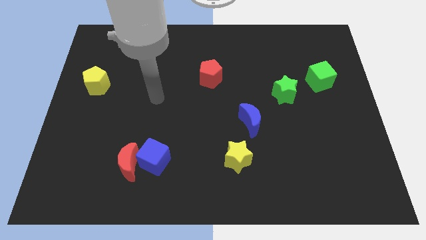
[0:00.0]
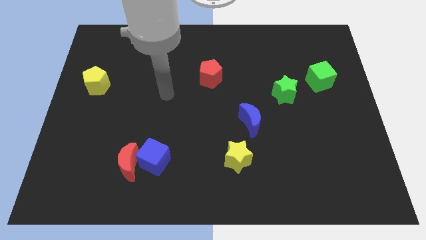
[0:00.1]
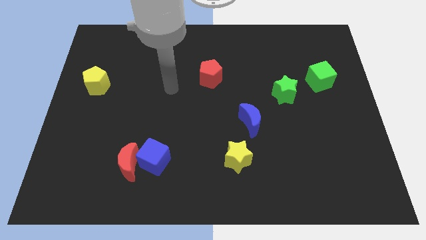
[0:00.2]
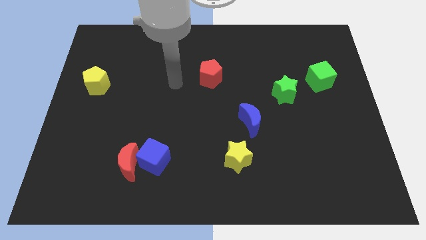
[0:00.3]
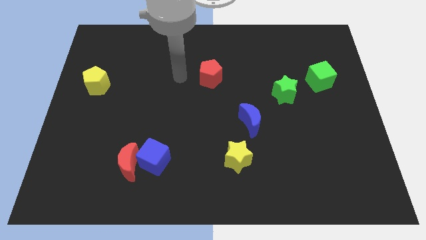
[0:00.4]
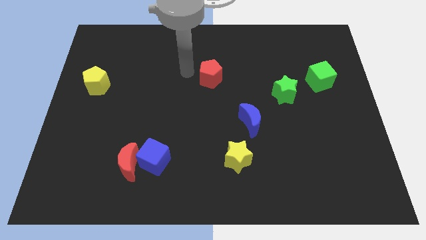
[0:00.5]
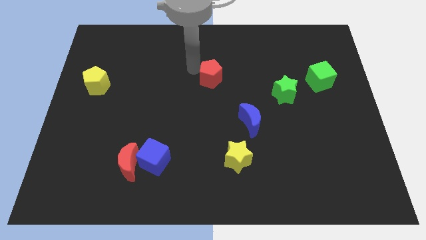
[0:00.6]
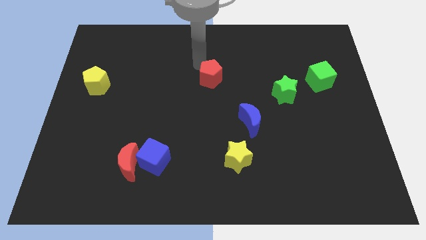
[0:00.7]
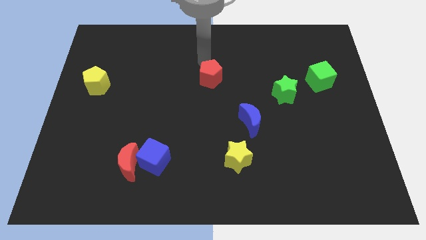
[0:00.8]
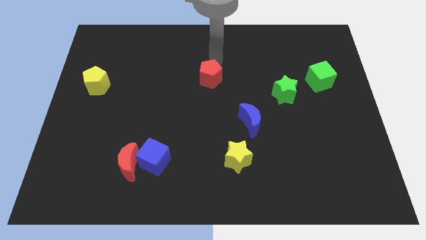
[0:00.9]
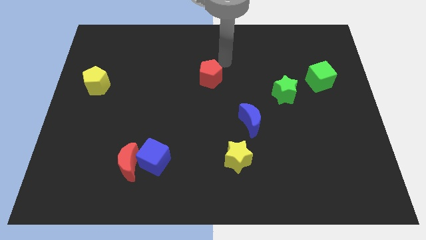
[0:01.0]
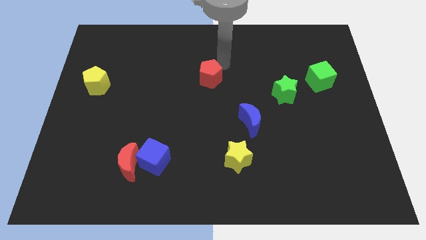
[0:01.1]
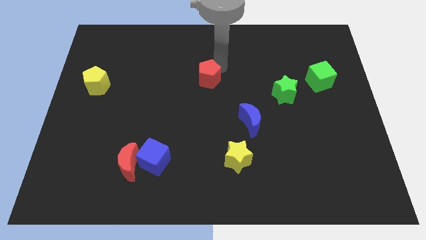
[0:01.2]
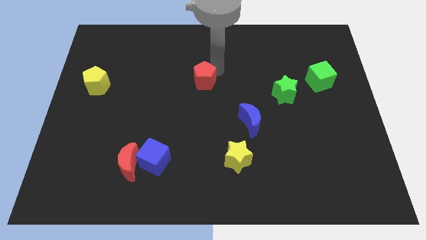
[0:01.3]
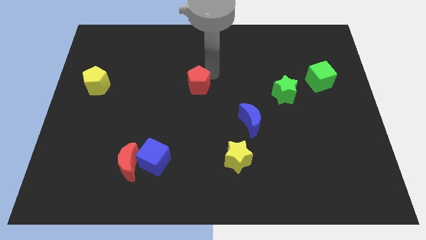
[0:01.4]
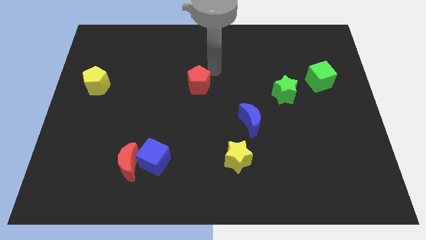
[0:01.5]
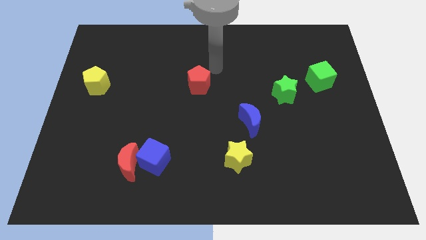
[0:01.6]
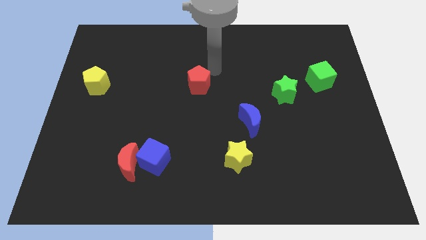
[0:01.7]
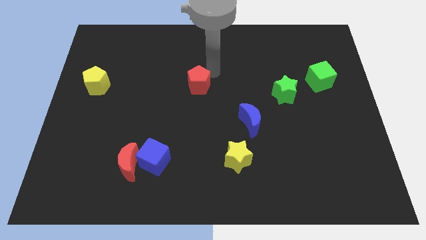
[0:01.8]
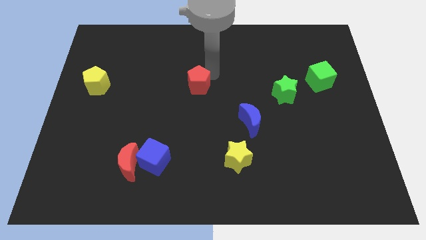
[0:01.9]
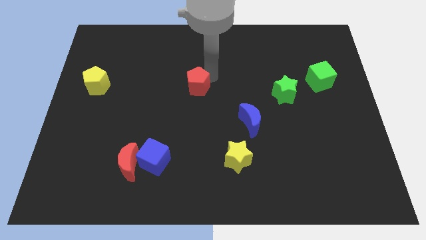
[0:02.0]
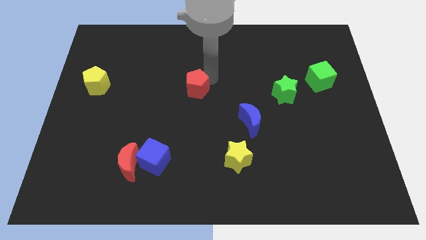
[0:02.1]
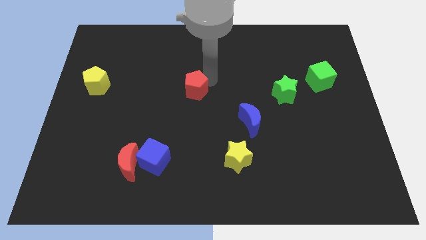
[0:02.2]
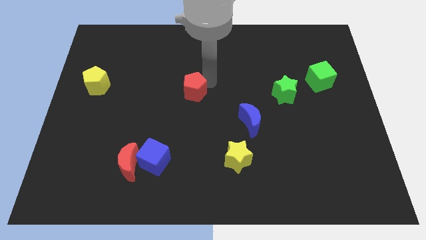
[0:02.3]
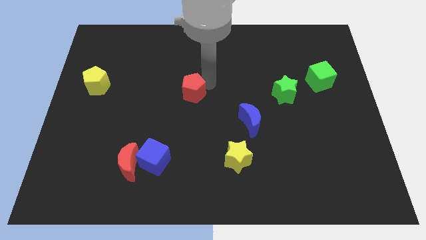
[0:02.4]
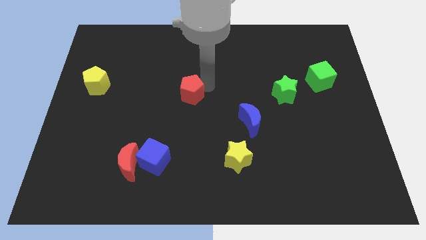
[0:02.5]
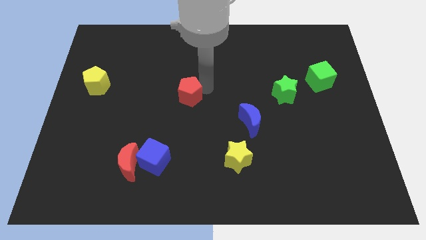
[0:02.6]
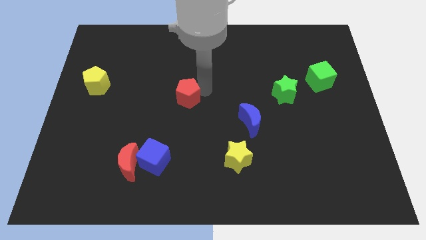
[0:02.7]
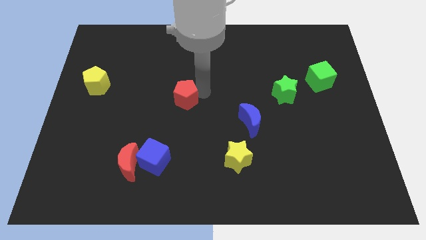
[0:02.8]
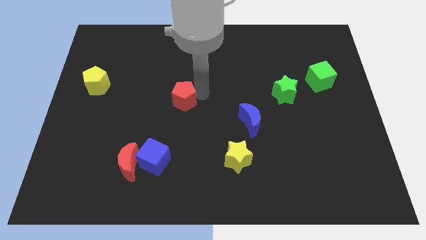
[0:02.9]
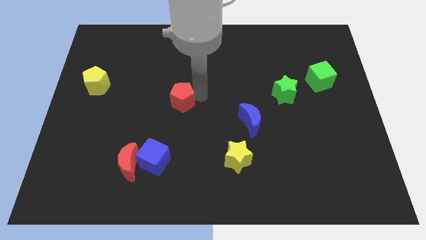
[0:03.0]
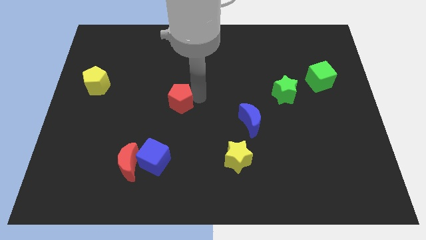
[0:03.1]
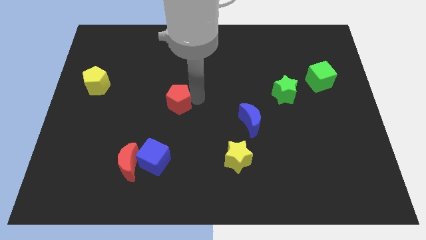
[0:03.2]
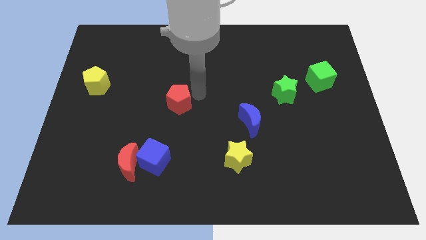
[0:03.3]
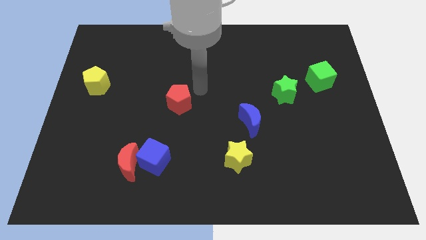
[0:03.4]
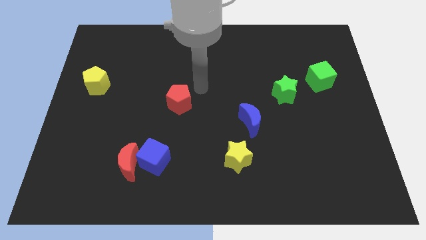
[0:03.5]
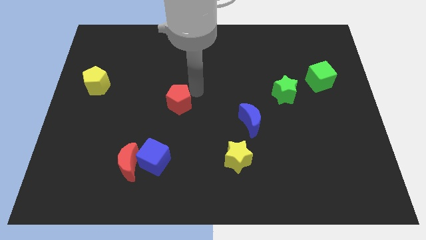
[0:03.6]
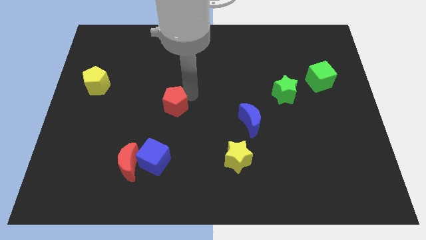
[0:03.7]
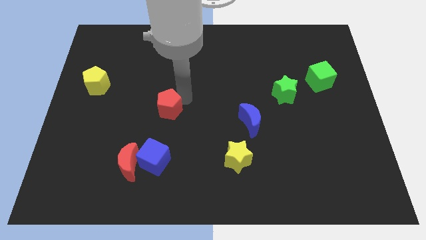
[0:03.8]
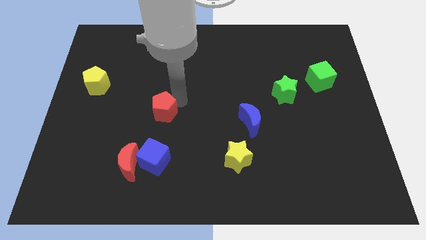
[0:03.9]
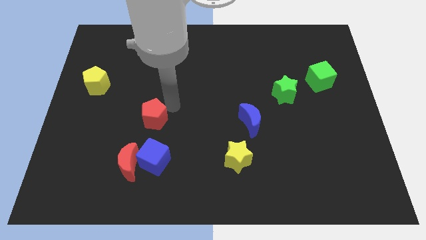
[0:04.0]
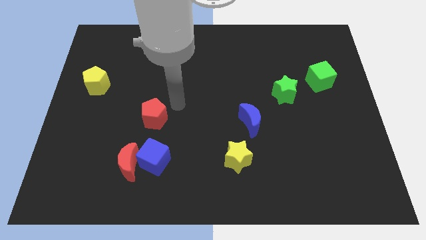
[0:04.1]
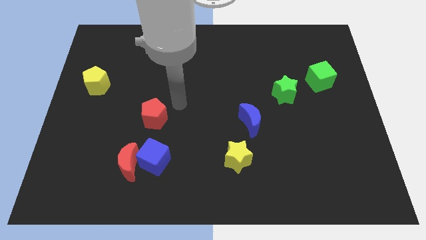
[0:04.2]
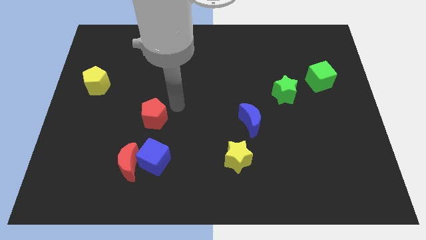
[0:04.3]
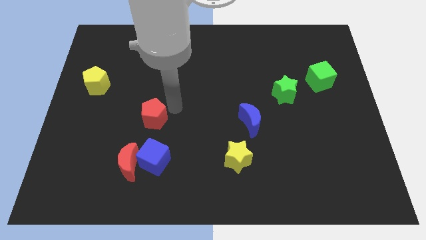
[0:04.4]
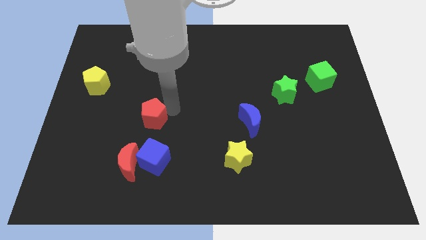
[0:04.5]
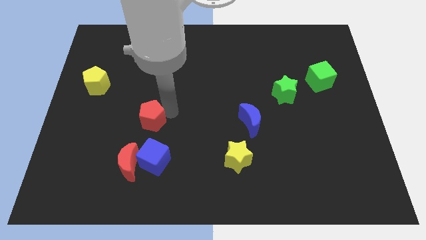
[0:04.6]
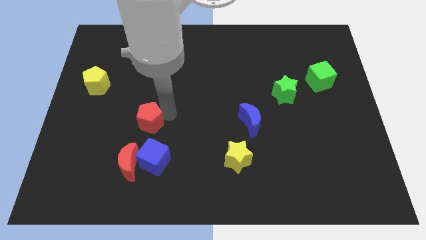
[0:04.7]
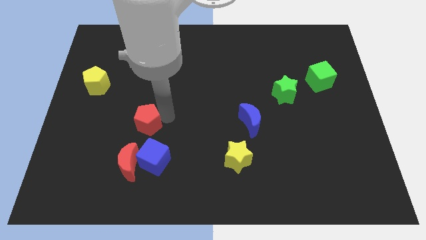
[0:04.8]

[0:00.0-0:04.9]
push the red pentagon down and left

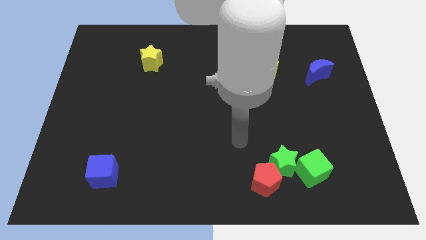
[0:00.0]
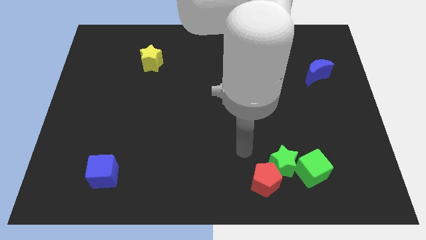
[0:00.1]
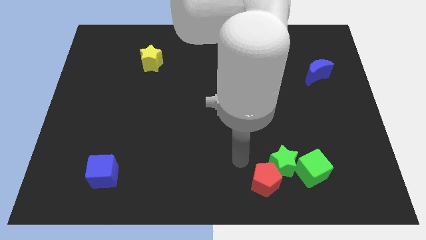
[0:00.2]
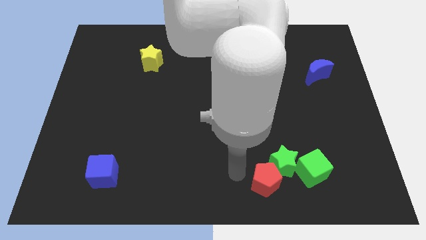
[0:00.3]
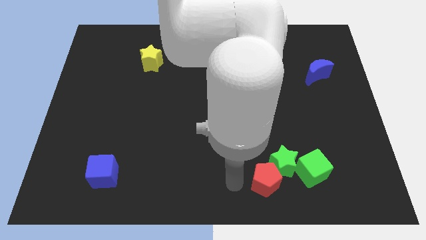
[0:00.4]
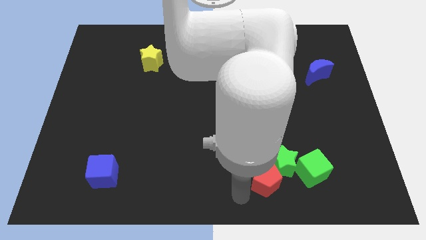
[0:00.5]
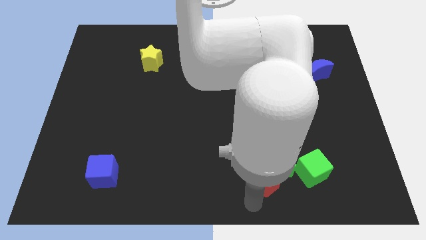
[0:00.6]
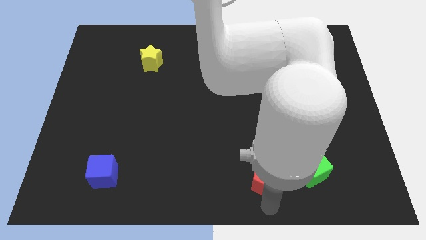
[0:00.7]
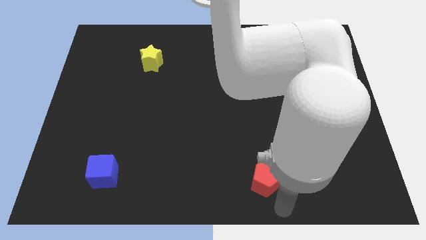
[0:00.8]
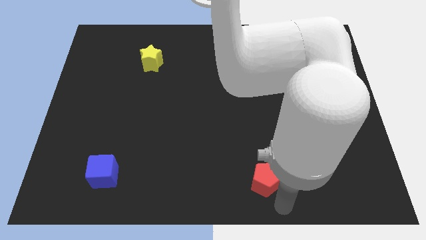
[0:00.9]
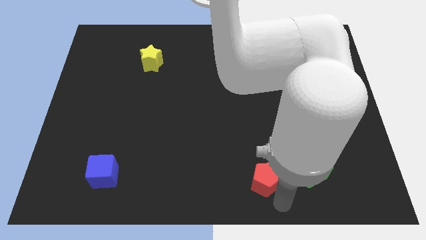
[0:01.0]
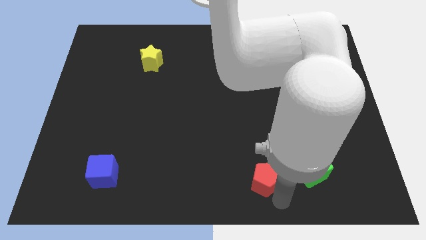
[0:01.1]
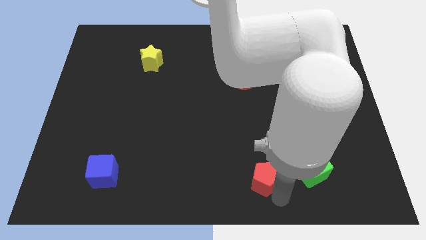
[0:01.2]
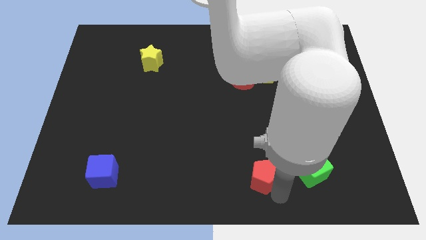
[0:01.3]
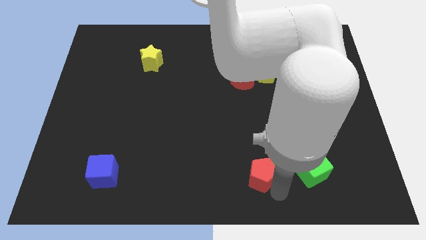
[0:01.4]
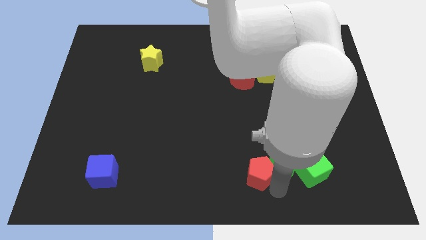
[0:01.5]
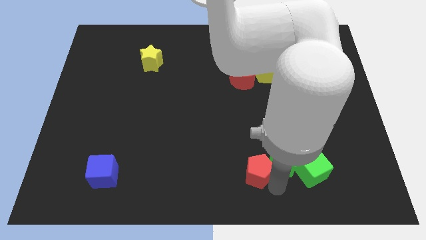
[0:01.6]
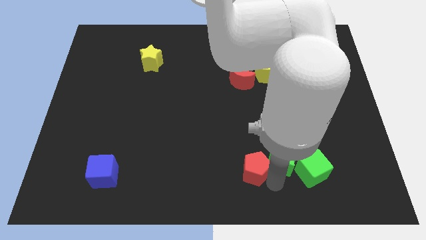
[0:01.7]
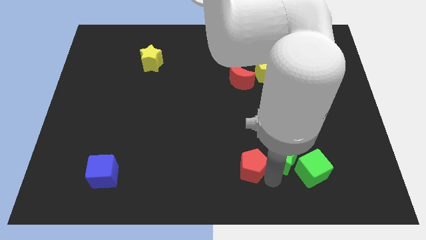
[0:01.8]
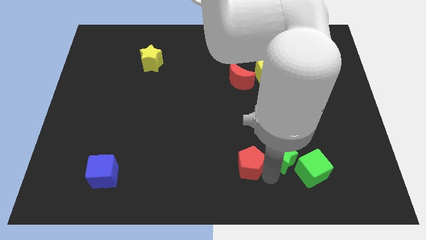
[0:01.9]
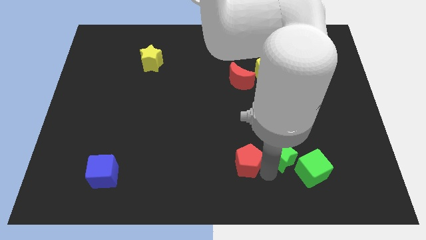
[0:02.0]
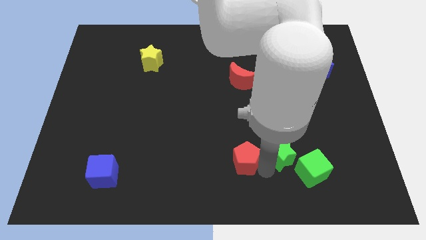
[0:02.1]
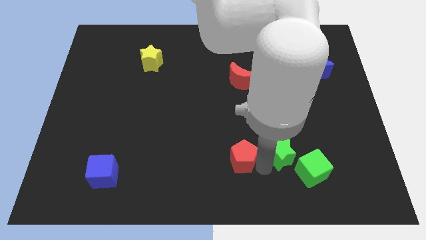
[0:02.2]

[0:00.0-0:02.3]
push the red pentagon slightly up and to the left diagonally

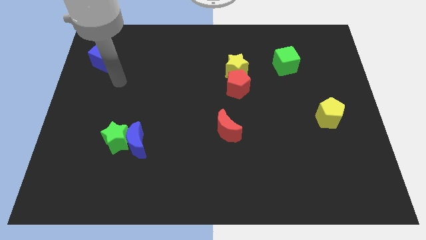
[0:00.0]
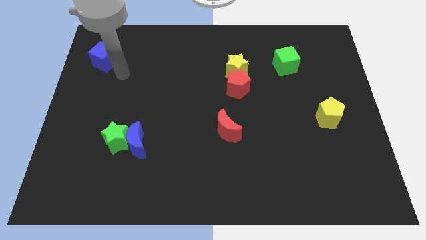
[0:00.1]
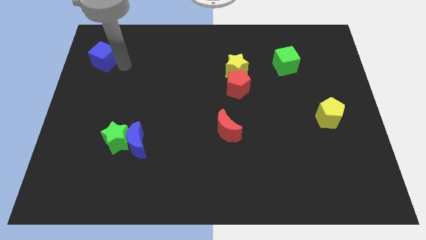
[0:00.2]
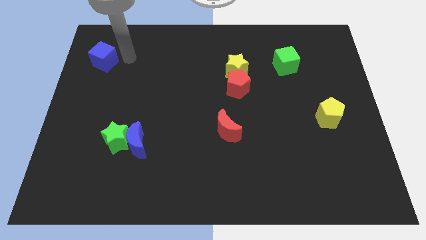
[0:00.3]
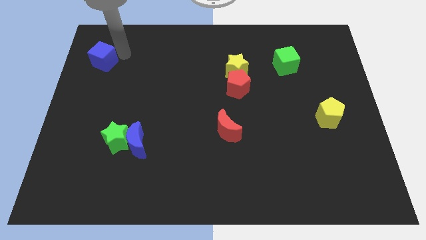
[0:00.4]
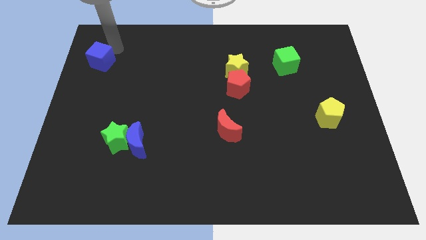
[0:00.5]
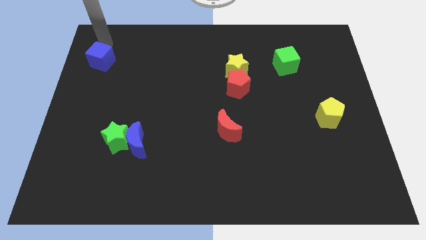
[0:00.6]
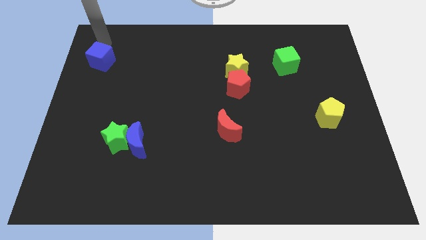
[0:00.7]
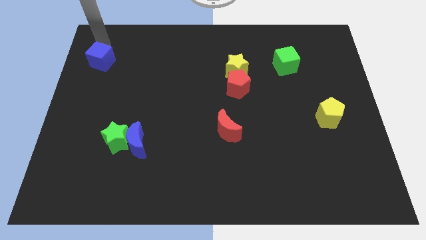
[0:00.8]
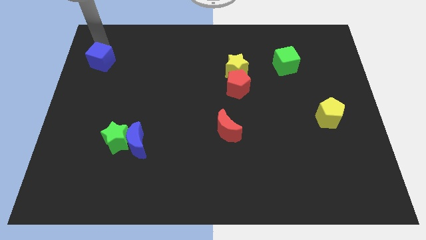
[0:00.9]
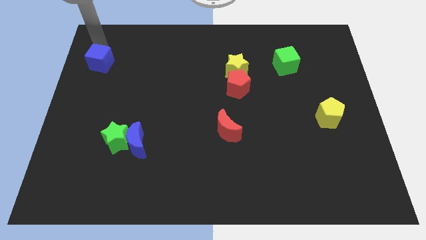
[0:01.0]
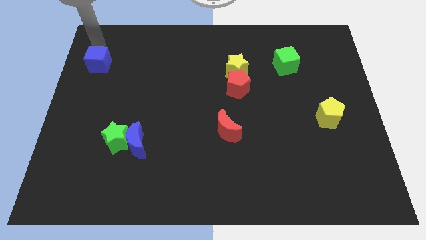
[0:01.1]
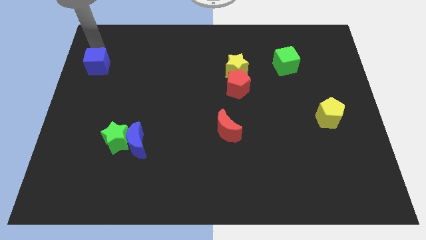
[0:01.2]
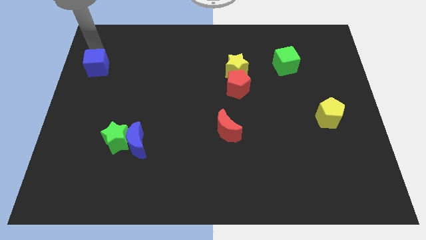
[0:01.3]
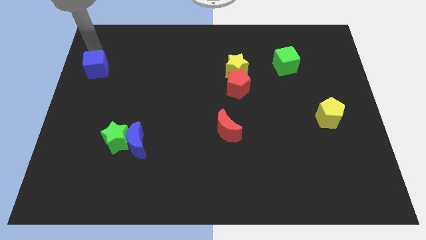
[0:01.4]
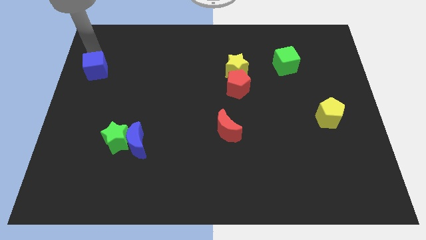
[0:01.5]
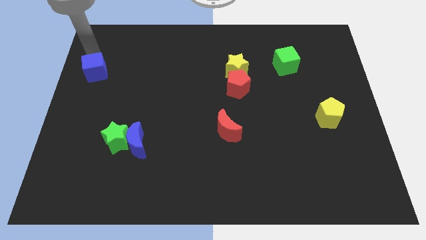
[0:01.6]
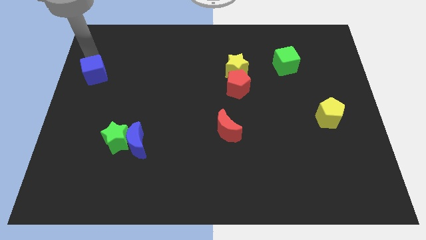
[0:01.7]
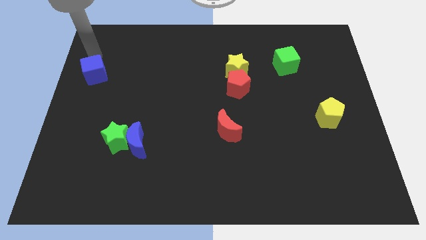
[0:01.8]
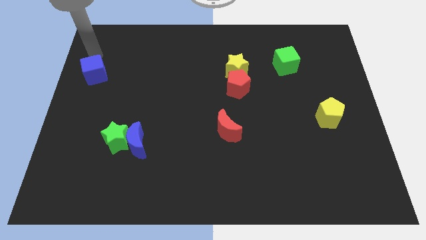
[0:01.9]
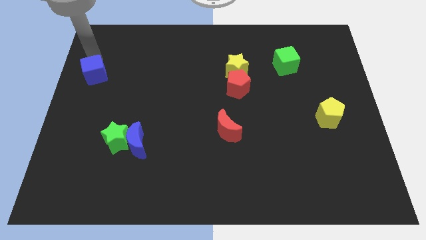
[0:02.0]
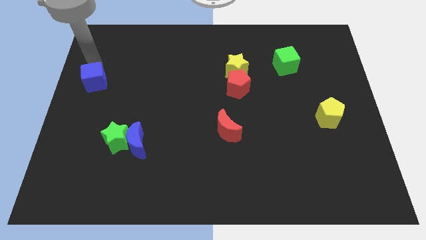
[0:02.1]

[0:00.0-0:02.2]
slide the blue cube down a little bit
